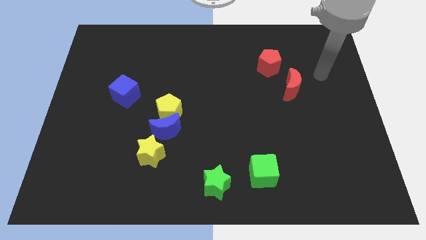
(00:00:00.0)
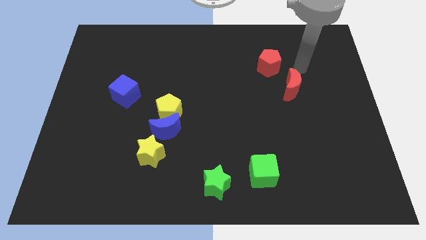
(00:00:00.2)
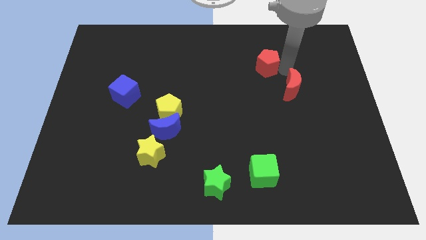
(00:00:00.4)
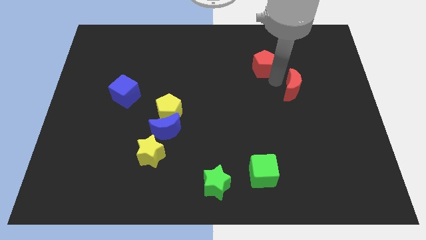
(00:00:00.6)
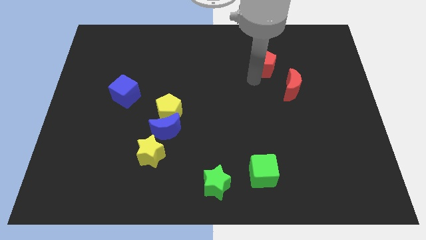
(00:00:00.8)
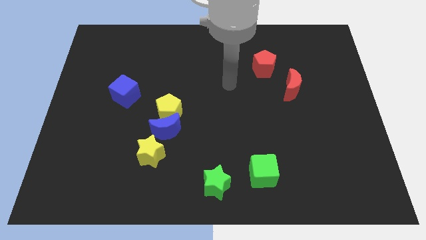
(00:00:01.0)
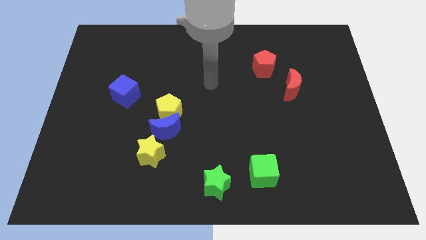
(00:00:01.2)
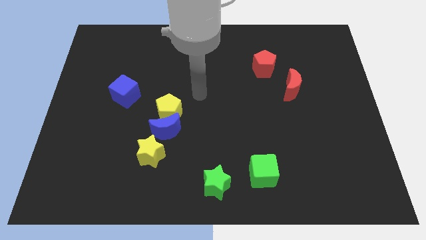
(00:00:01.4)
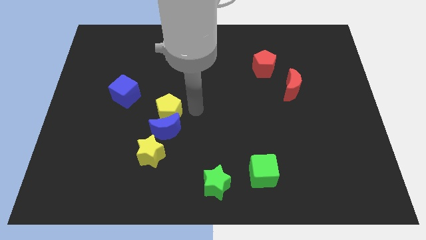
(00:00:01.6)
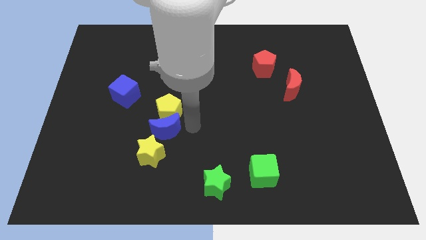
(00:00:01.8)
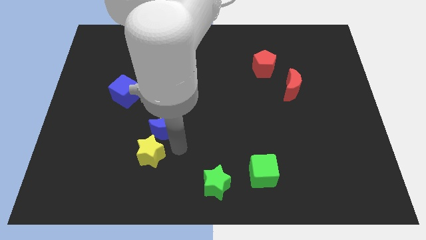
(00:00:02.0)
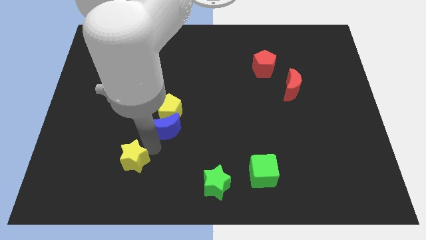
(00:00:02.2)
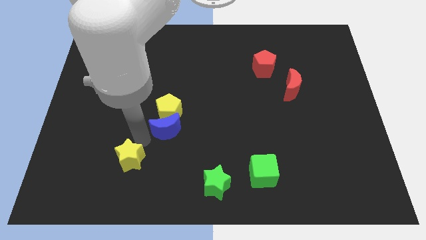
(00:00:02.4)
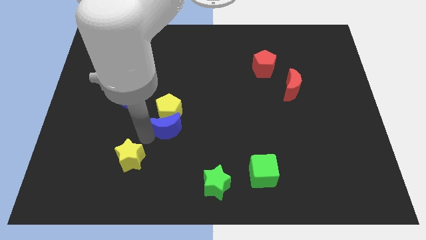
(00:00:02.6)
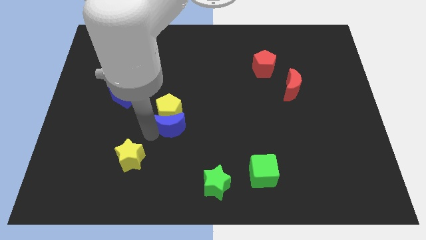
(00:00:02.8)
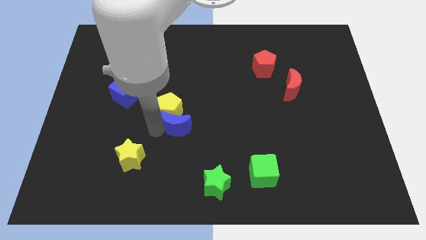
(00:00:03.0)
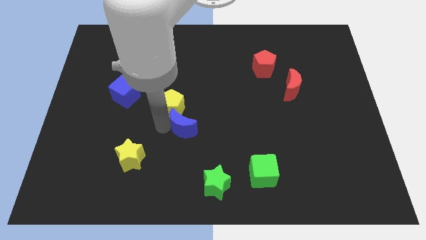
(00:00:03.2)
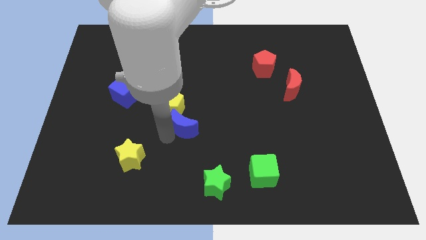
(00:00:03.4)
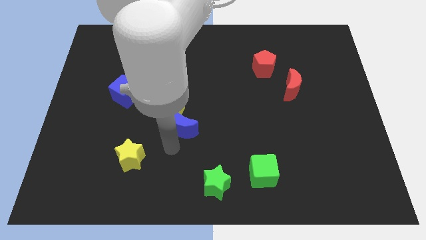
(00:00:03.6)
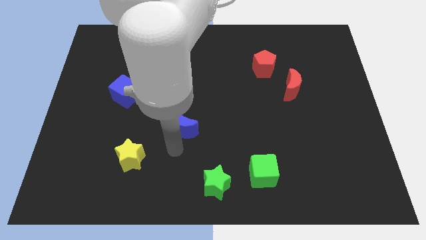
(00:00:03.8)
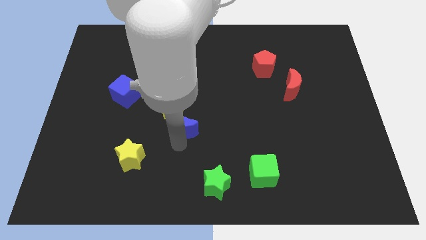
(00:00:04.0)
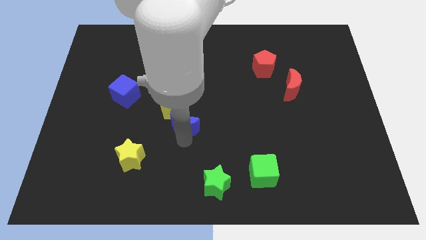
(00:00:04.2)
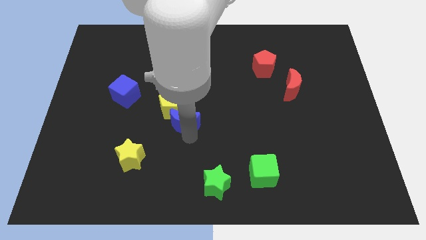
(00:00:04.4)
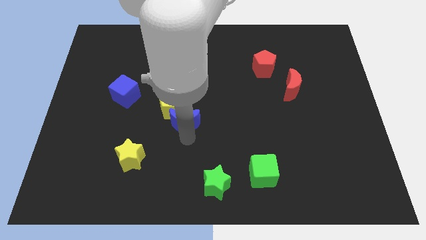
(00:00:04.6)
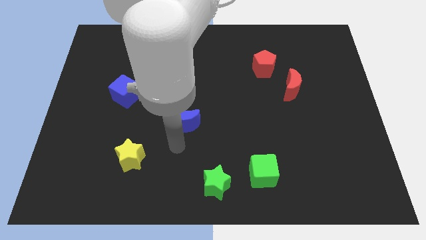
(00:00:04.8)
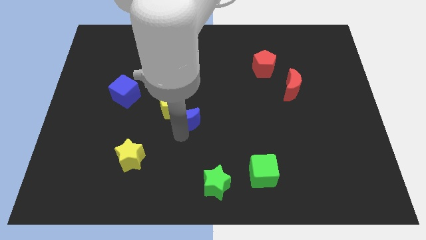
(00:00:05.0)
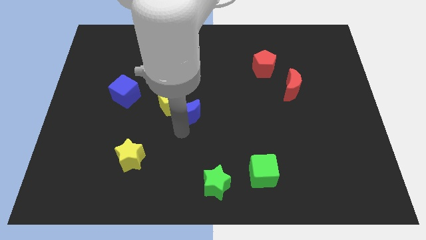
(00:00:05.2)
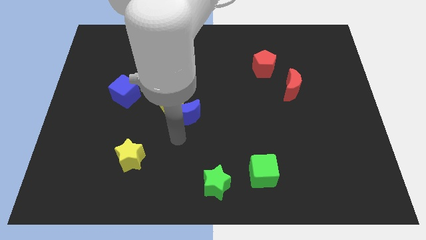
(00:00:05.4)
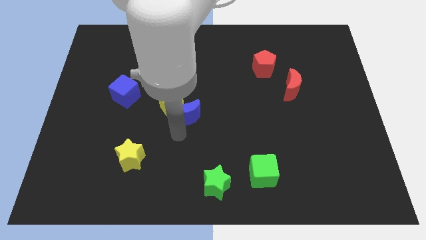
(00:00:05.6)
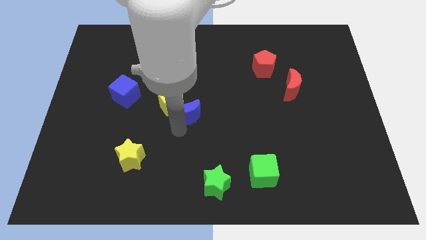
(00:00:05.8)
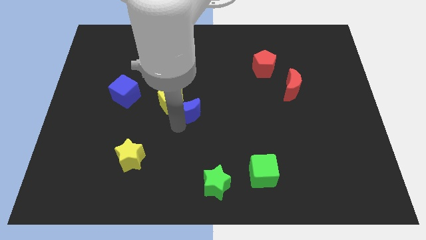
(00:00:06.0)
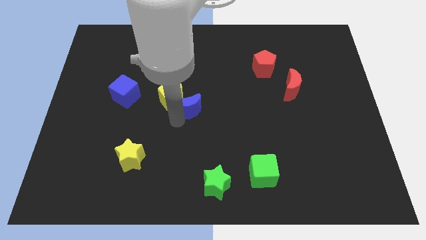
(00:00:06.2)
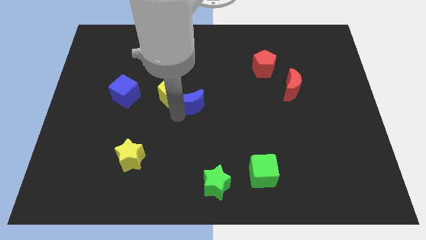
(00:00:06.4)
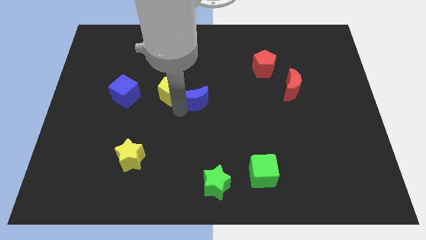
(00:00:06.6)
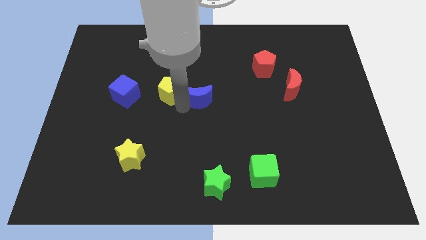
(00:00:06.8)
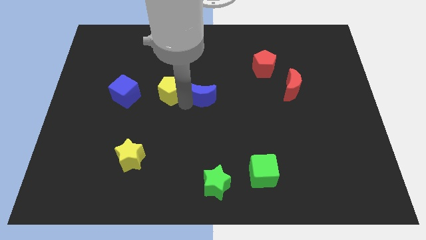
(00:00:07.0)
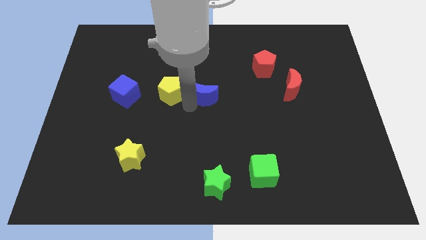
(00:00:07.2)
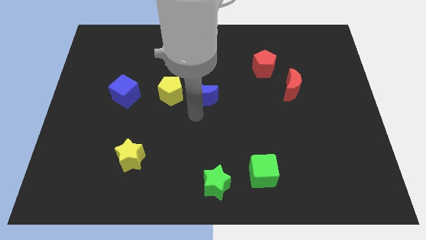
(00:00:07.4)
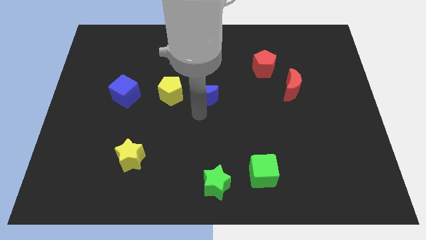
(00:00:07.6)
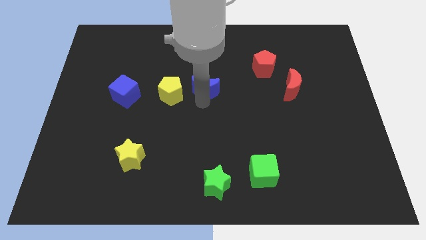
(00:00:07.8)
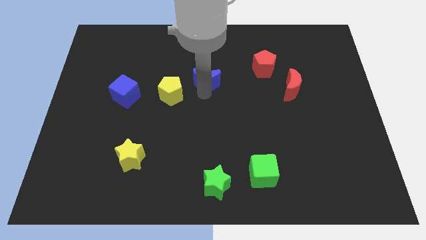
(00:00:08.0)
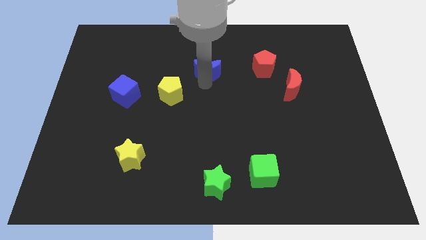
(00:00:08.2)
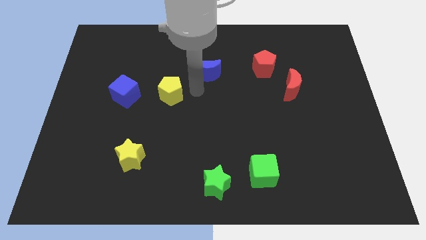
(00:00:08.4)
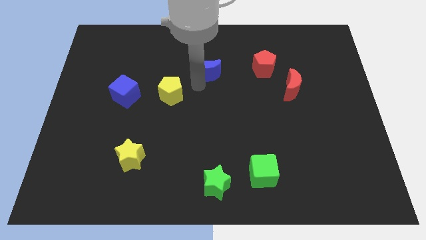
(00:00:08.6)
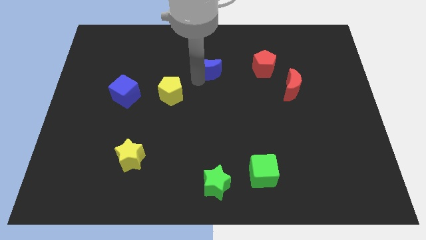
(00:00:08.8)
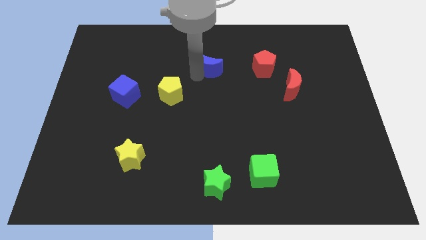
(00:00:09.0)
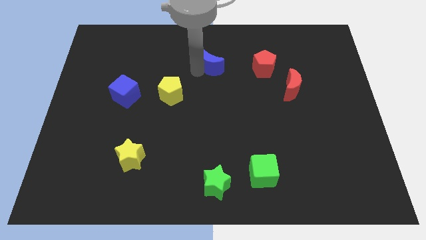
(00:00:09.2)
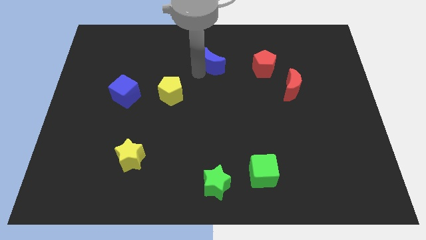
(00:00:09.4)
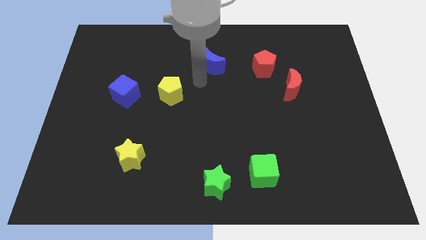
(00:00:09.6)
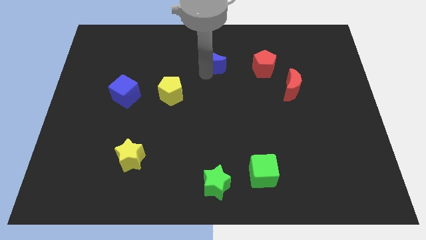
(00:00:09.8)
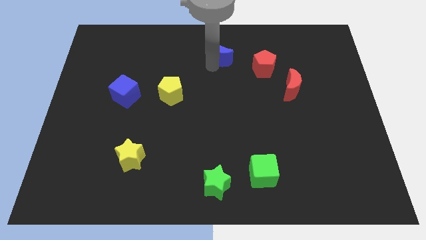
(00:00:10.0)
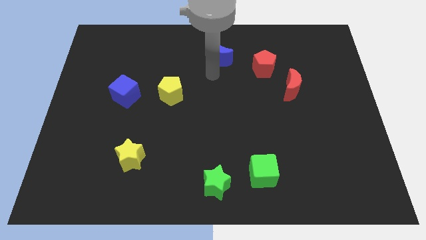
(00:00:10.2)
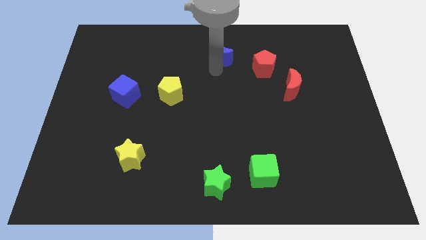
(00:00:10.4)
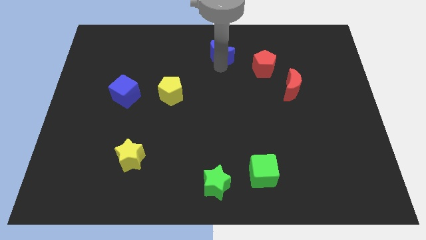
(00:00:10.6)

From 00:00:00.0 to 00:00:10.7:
put the blue moon to the towards your base

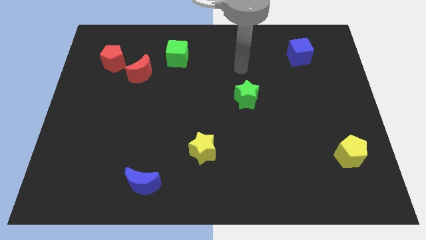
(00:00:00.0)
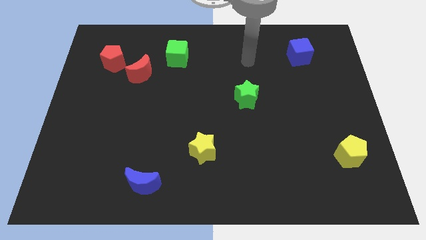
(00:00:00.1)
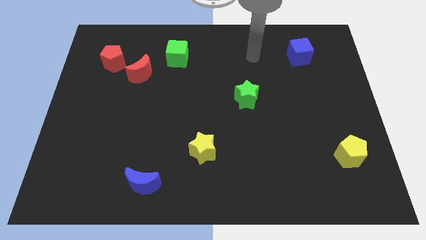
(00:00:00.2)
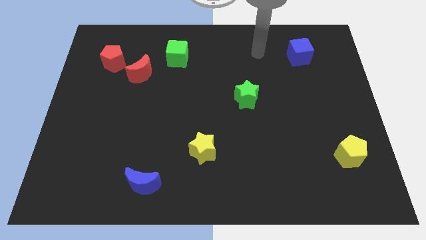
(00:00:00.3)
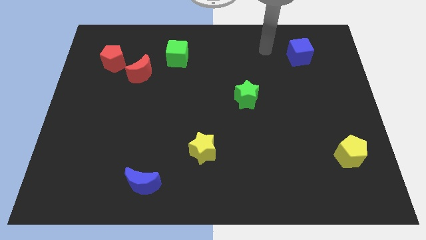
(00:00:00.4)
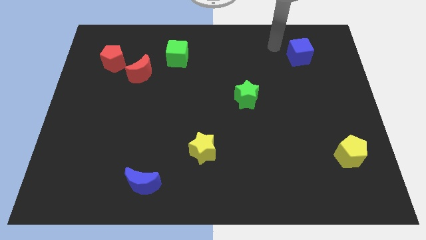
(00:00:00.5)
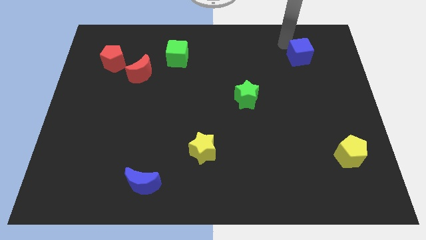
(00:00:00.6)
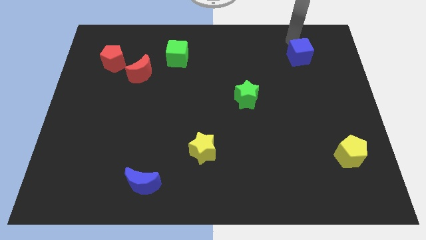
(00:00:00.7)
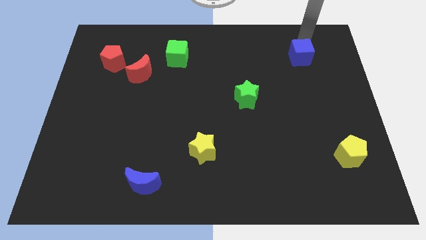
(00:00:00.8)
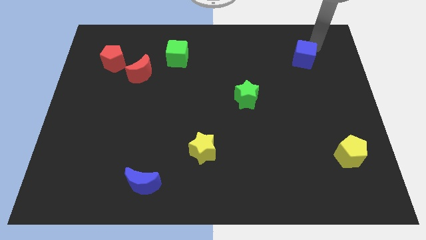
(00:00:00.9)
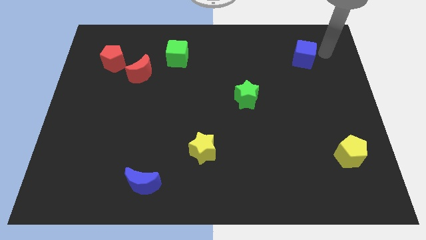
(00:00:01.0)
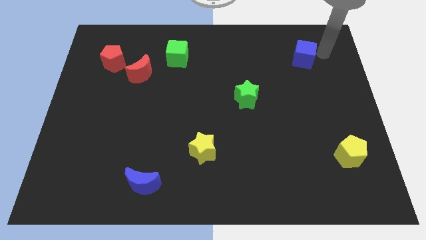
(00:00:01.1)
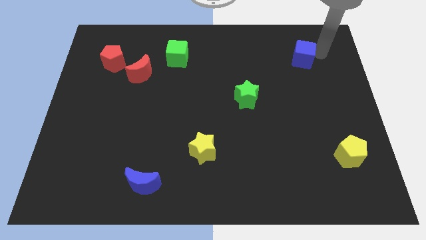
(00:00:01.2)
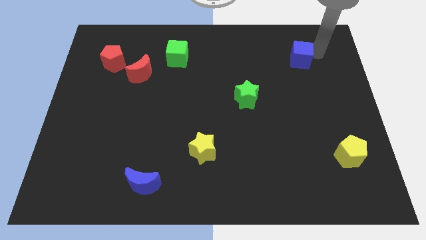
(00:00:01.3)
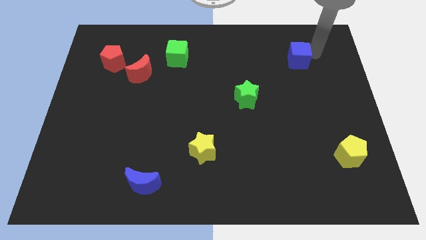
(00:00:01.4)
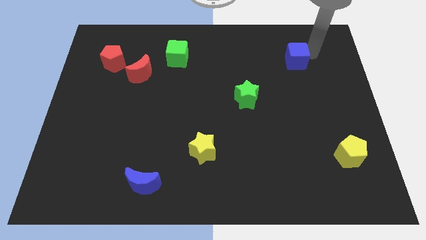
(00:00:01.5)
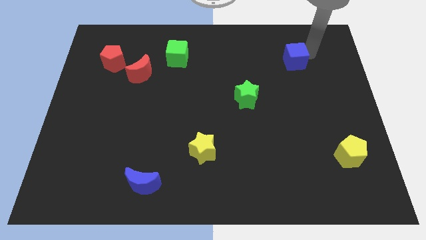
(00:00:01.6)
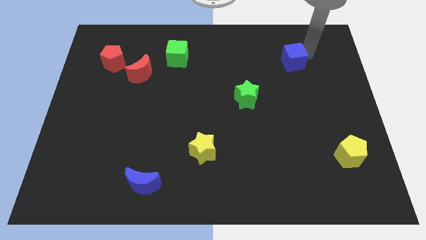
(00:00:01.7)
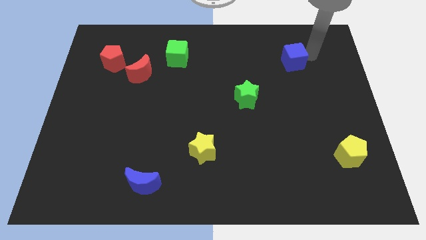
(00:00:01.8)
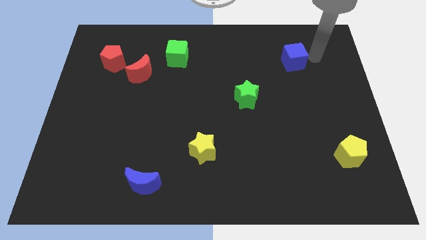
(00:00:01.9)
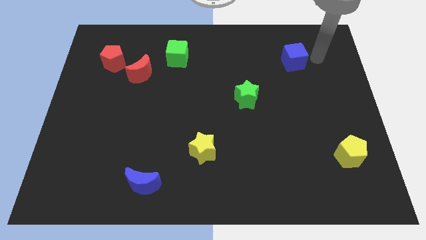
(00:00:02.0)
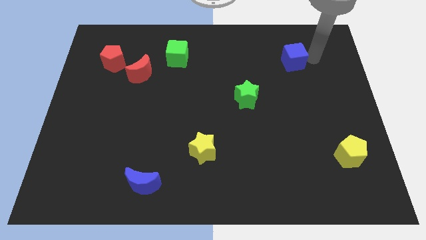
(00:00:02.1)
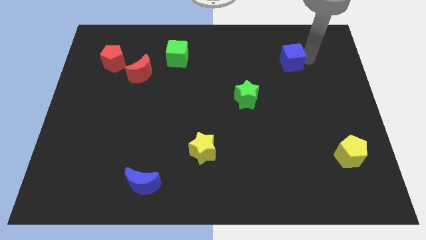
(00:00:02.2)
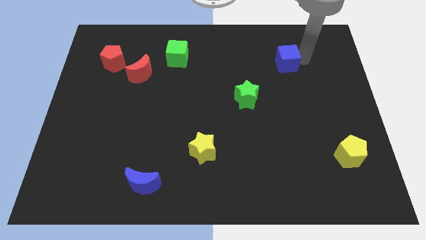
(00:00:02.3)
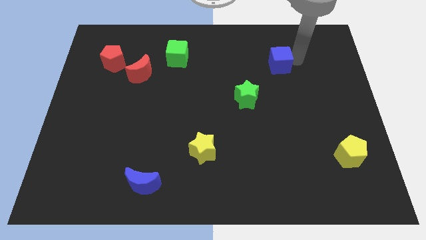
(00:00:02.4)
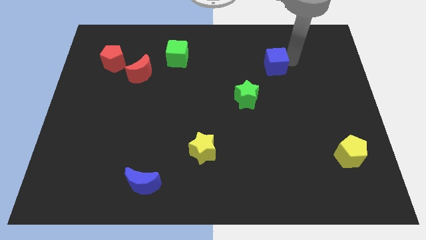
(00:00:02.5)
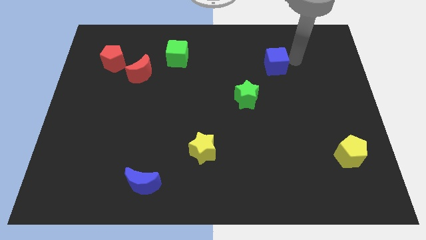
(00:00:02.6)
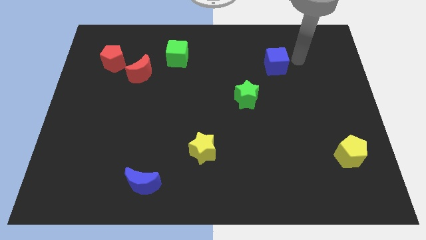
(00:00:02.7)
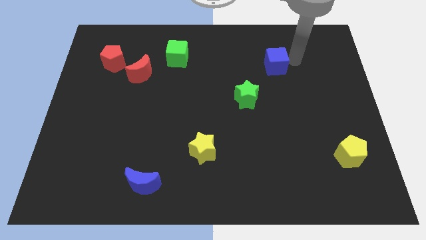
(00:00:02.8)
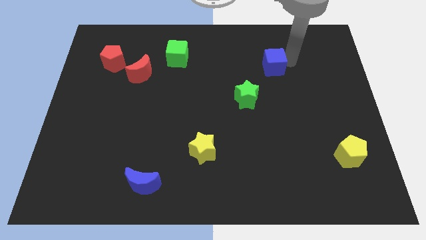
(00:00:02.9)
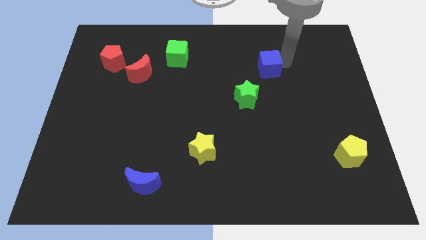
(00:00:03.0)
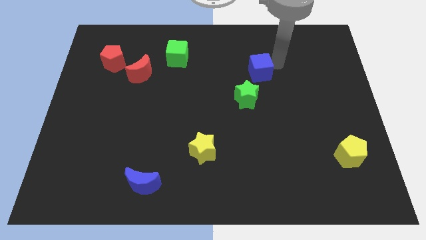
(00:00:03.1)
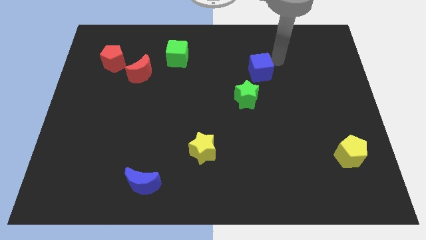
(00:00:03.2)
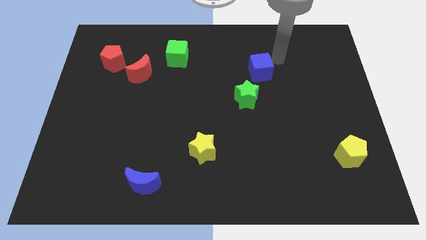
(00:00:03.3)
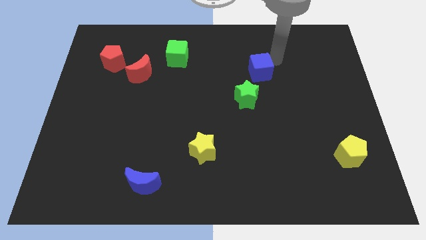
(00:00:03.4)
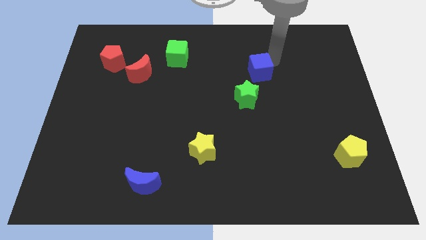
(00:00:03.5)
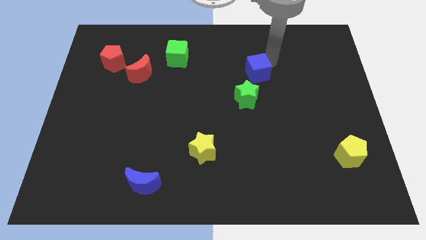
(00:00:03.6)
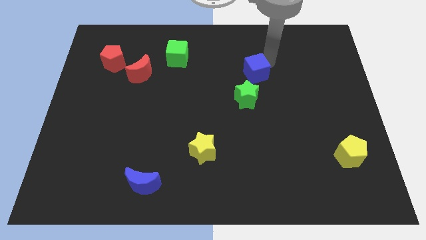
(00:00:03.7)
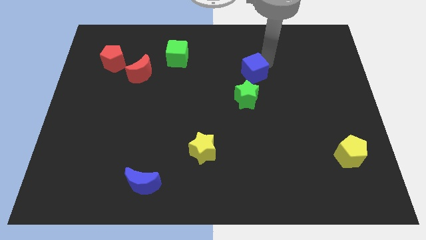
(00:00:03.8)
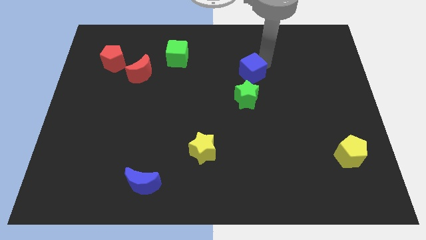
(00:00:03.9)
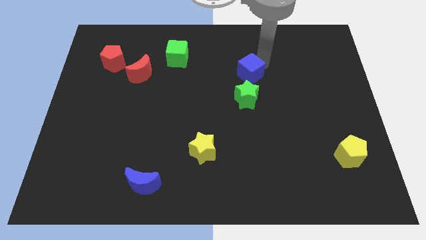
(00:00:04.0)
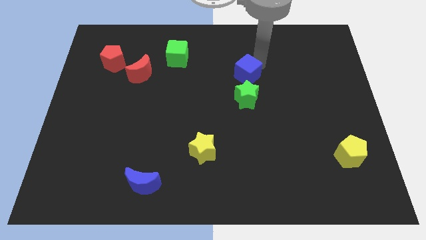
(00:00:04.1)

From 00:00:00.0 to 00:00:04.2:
push the blue cube to the center
